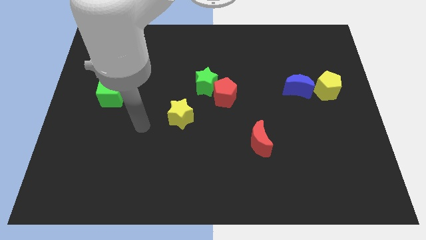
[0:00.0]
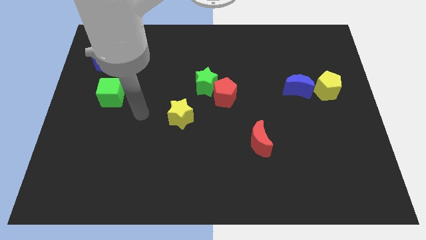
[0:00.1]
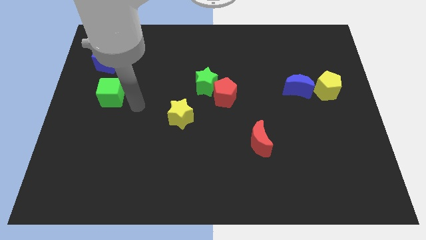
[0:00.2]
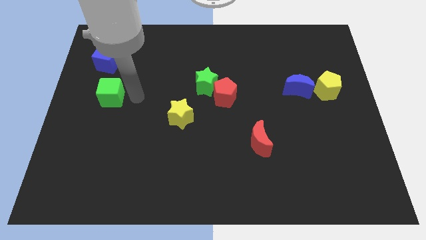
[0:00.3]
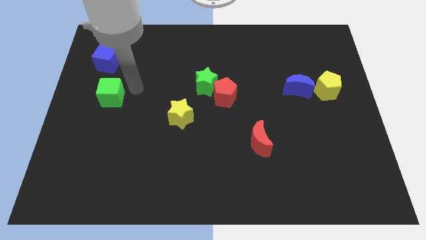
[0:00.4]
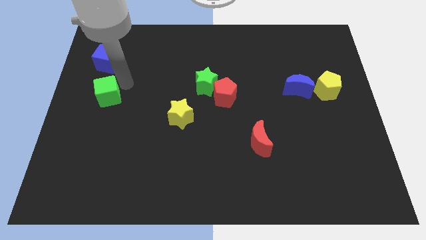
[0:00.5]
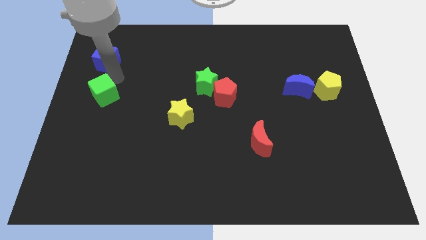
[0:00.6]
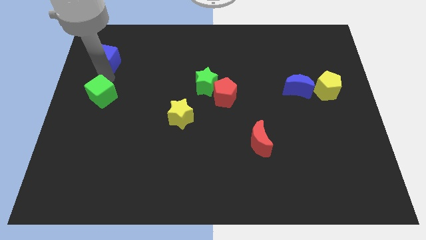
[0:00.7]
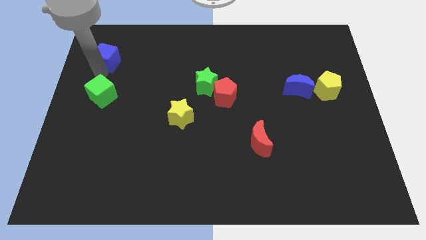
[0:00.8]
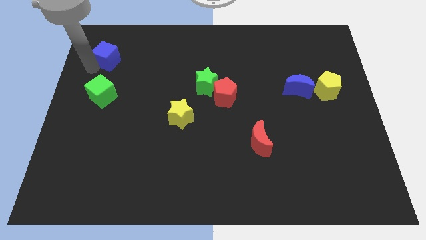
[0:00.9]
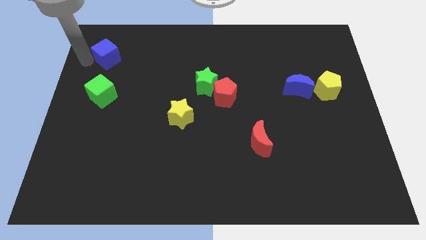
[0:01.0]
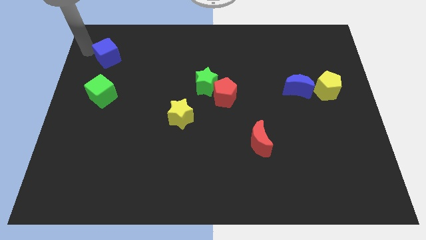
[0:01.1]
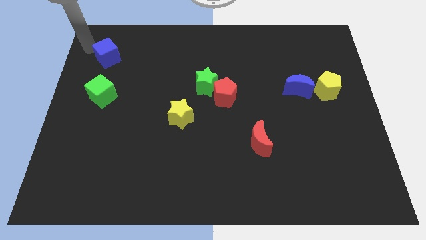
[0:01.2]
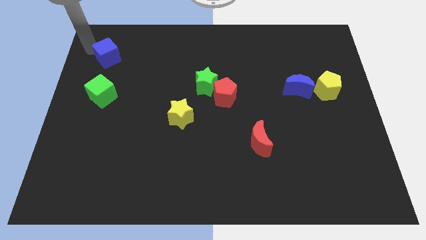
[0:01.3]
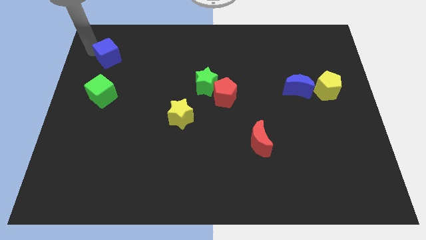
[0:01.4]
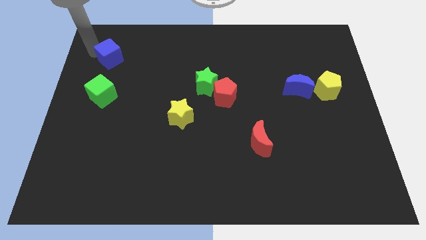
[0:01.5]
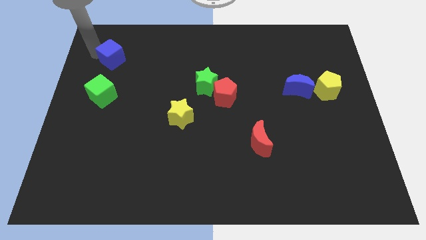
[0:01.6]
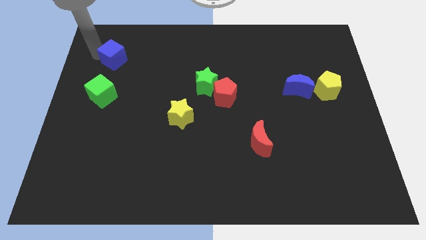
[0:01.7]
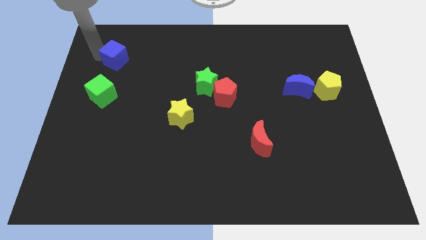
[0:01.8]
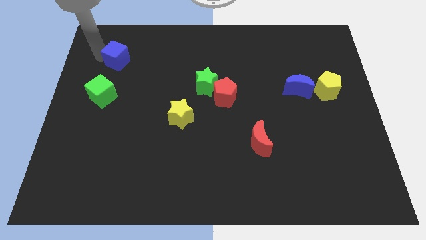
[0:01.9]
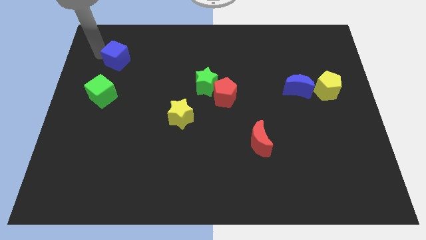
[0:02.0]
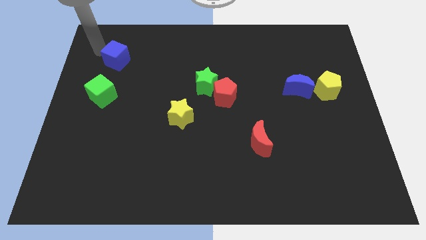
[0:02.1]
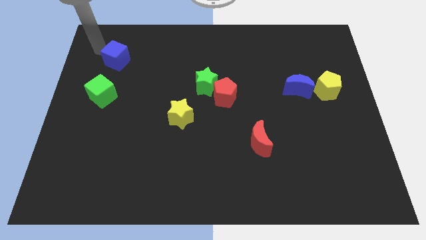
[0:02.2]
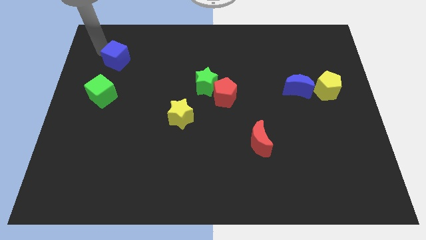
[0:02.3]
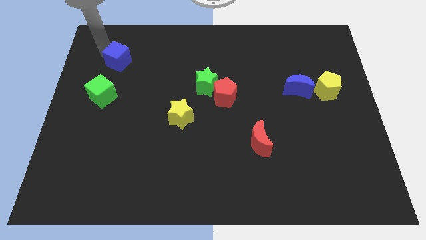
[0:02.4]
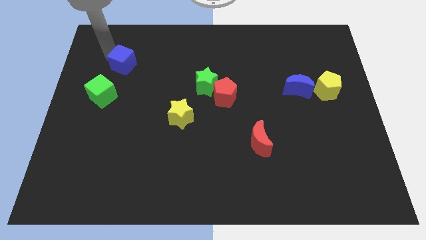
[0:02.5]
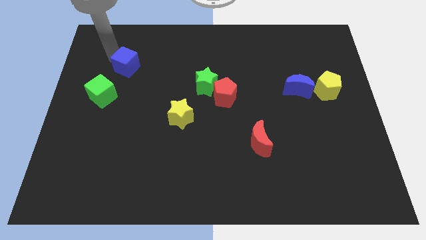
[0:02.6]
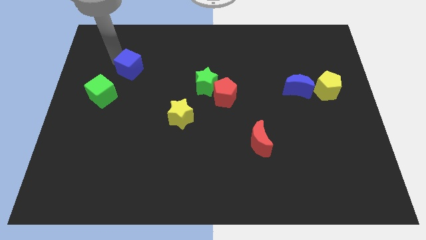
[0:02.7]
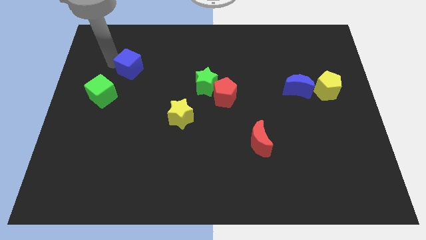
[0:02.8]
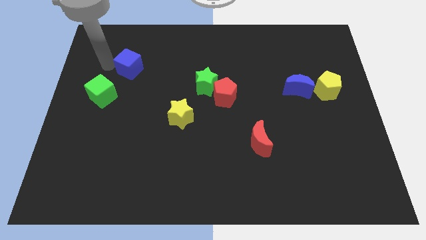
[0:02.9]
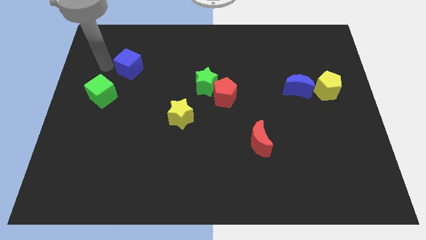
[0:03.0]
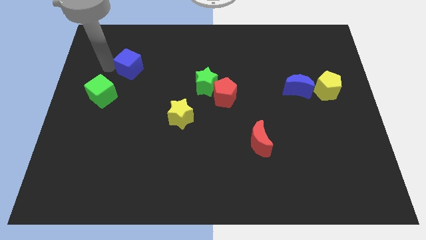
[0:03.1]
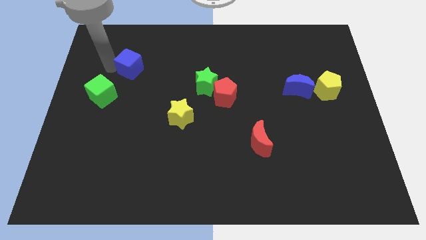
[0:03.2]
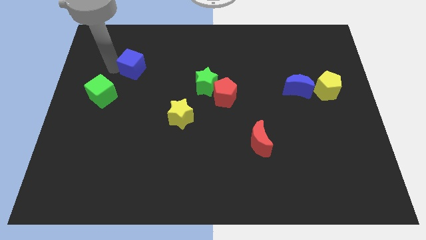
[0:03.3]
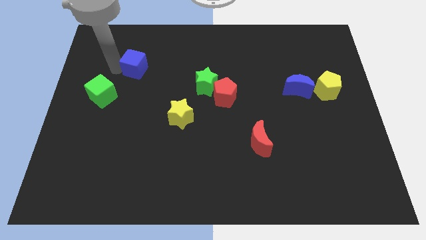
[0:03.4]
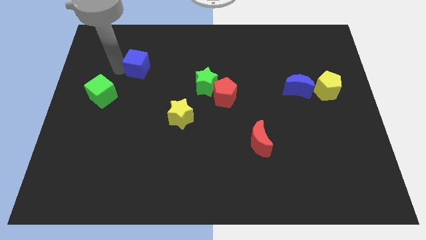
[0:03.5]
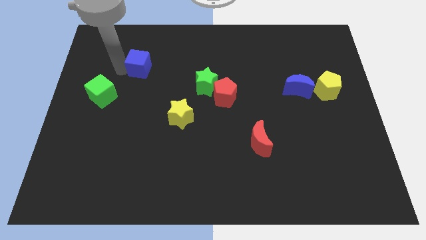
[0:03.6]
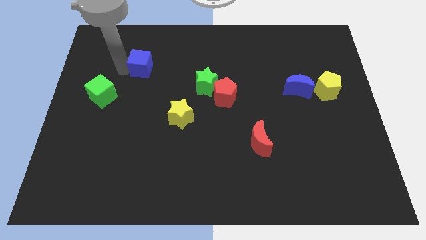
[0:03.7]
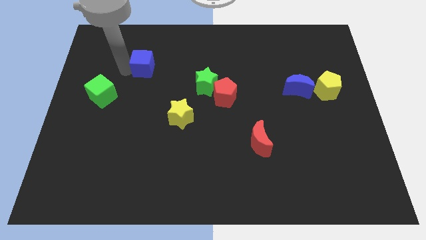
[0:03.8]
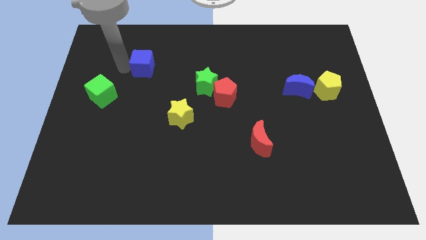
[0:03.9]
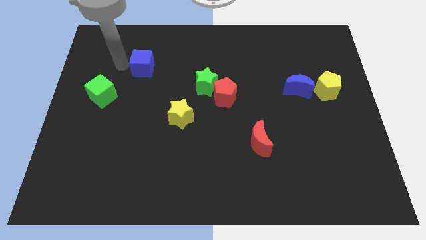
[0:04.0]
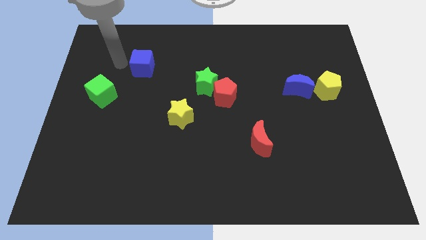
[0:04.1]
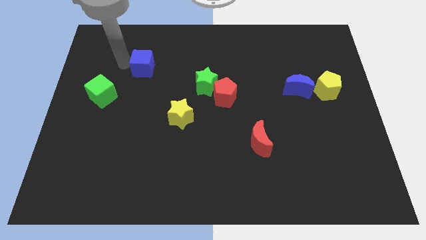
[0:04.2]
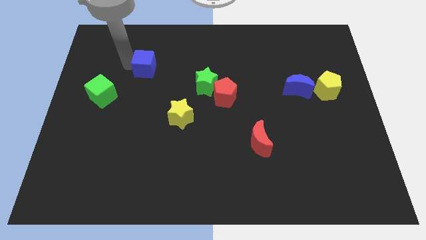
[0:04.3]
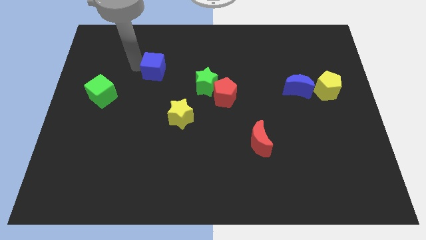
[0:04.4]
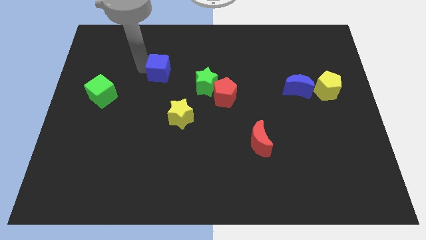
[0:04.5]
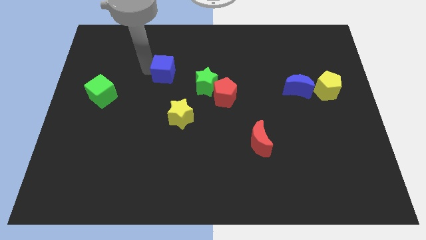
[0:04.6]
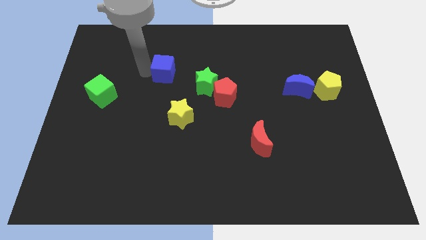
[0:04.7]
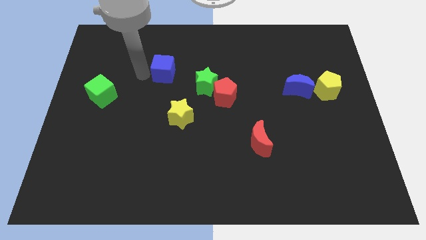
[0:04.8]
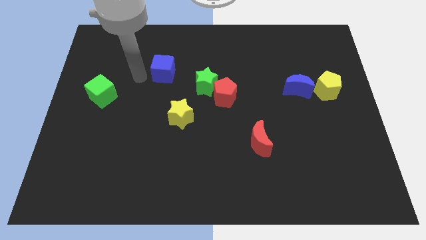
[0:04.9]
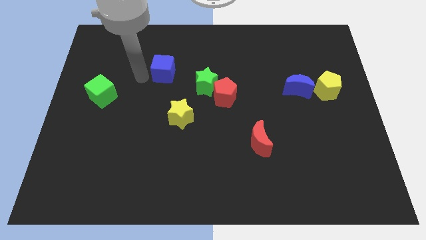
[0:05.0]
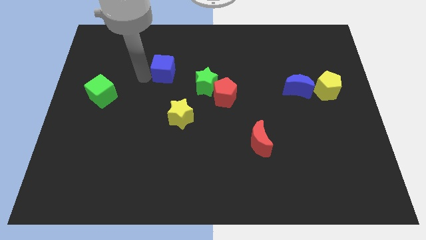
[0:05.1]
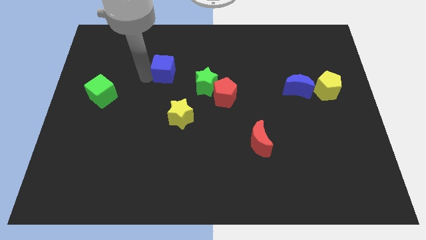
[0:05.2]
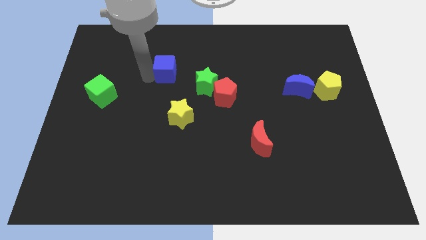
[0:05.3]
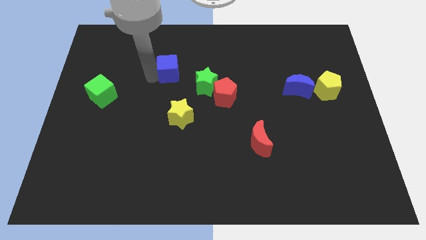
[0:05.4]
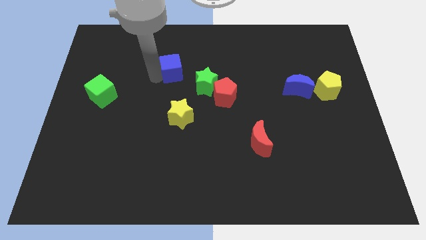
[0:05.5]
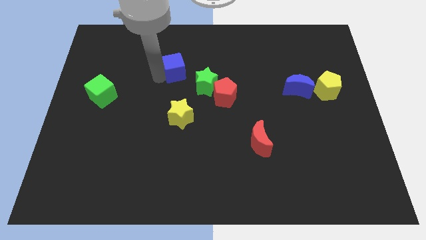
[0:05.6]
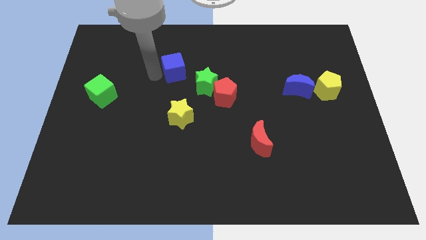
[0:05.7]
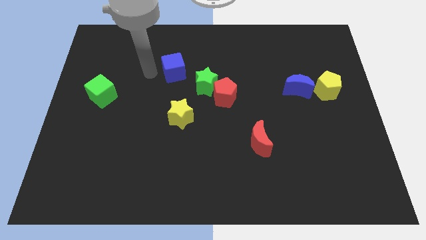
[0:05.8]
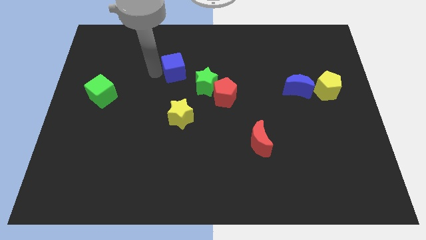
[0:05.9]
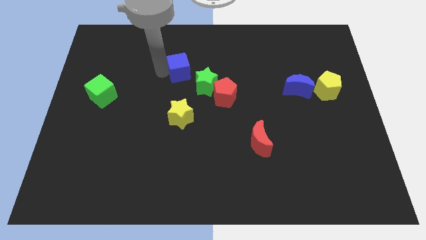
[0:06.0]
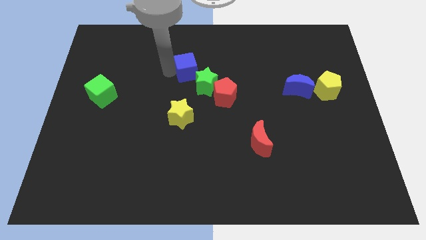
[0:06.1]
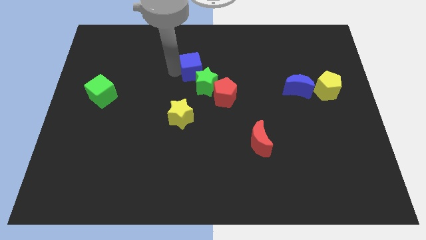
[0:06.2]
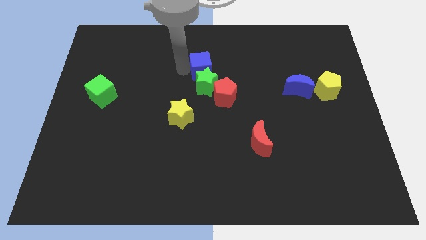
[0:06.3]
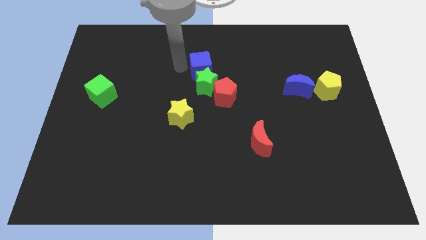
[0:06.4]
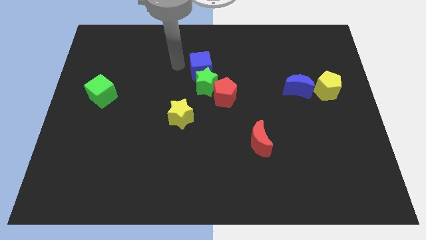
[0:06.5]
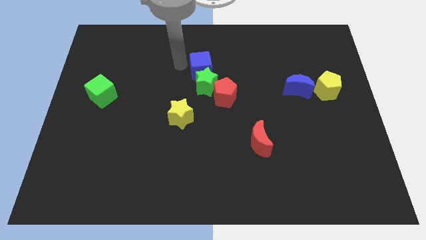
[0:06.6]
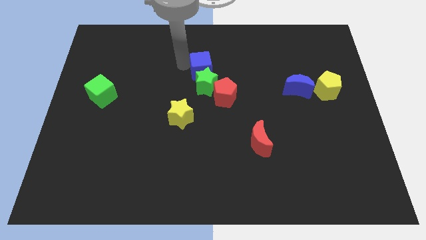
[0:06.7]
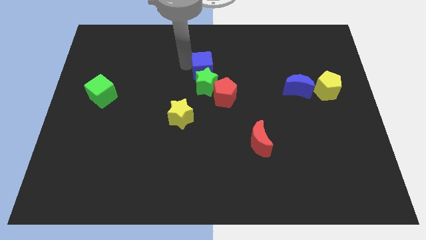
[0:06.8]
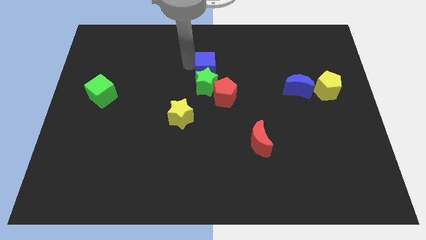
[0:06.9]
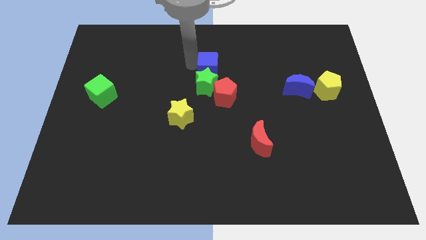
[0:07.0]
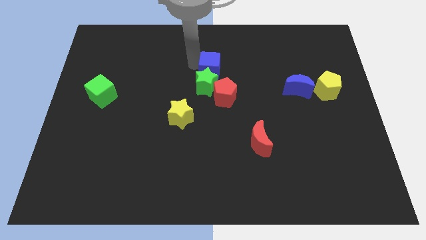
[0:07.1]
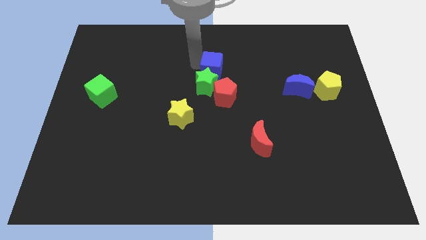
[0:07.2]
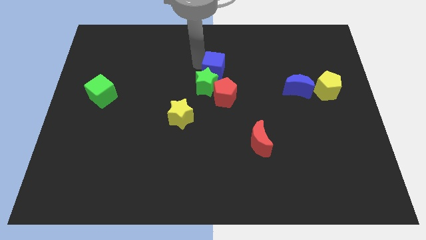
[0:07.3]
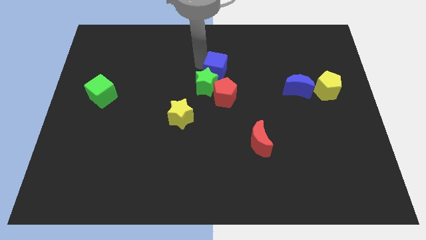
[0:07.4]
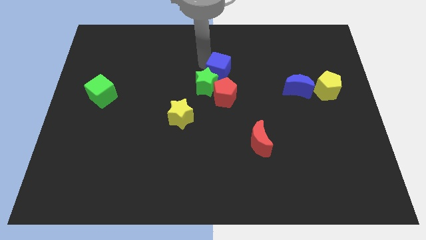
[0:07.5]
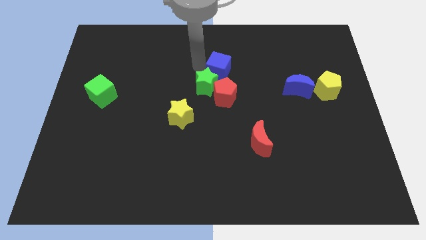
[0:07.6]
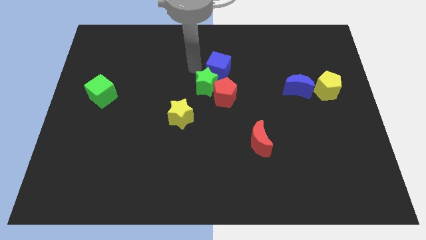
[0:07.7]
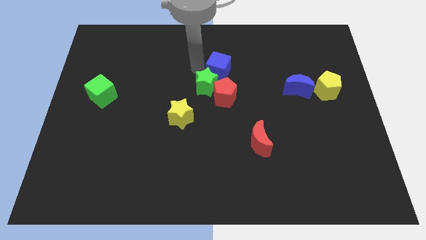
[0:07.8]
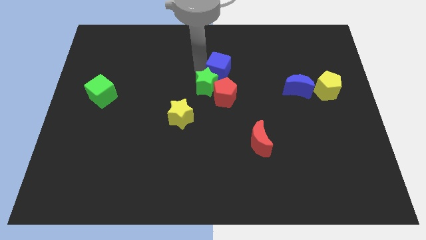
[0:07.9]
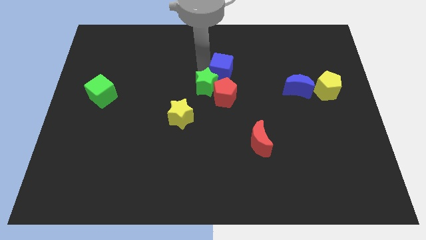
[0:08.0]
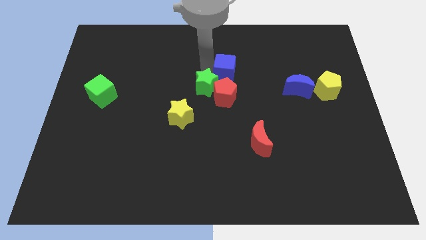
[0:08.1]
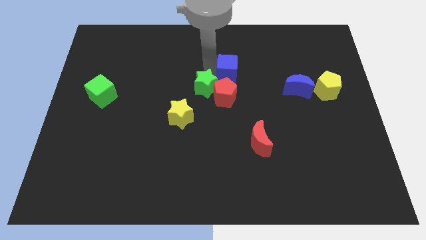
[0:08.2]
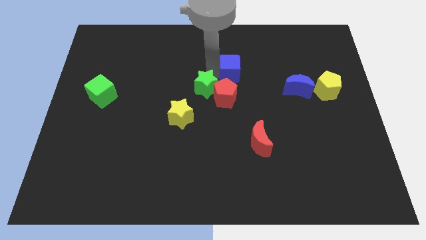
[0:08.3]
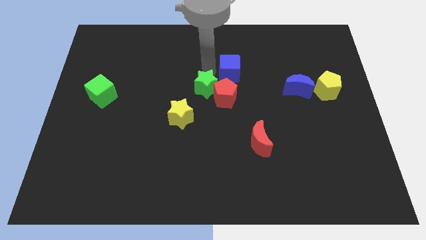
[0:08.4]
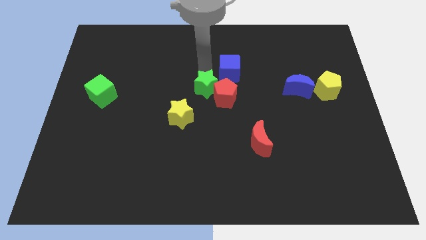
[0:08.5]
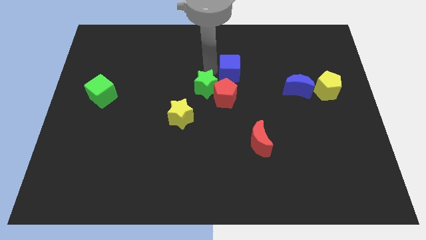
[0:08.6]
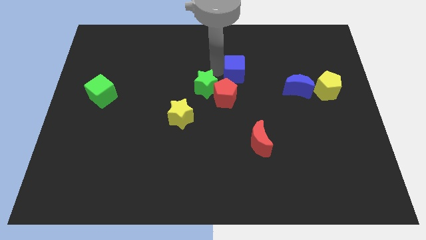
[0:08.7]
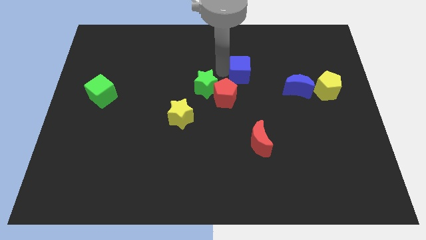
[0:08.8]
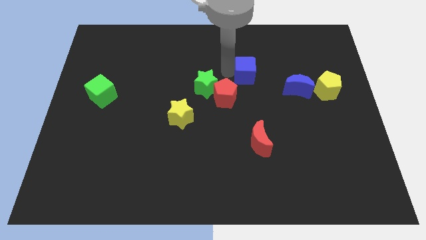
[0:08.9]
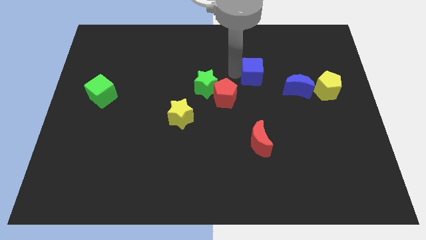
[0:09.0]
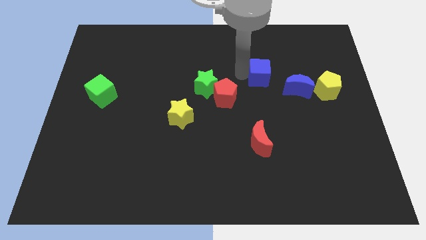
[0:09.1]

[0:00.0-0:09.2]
slide the blue cube to the top left side of the blue moon
